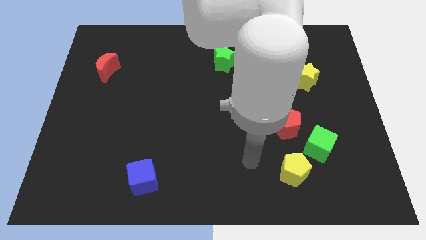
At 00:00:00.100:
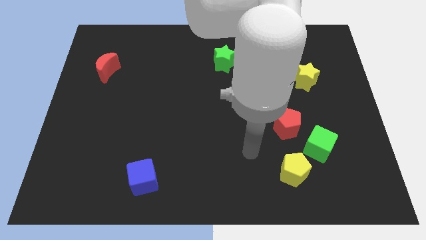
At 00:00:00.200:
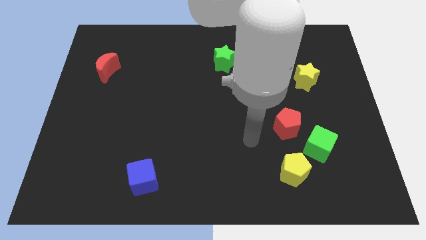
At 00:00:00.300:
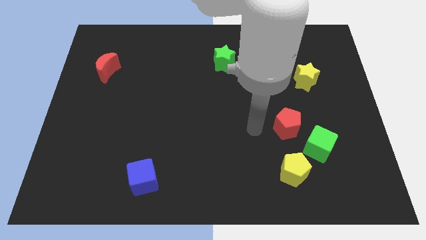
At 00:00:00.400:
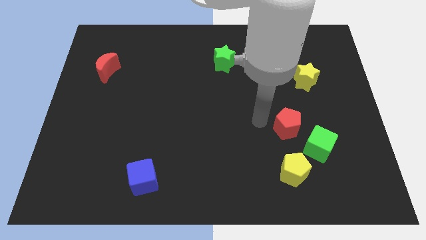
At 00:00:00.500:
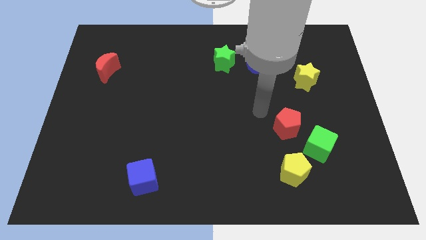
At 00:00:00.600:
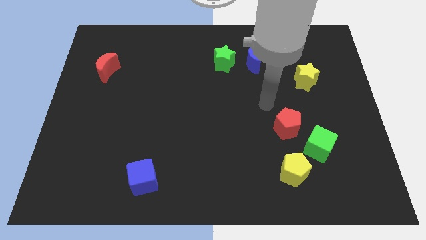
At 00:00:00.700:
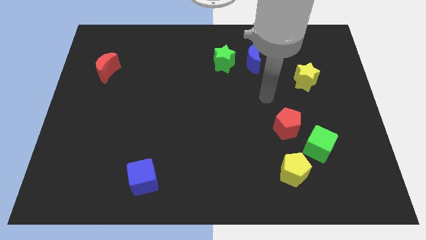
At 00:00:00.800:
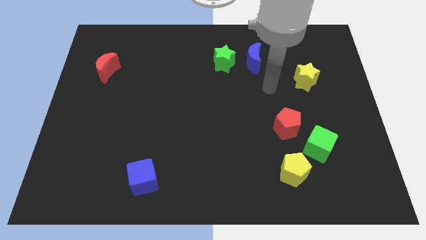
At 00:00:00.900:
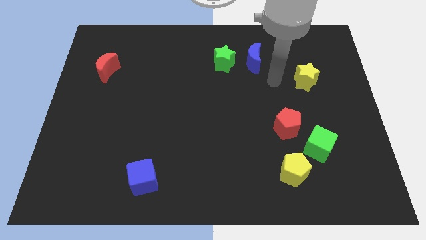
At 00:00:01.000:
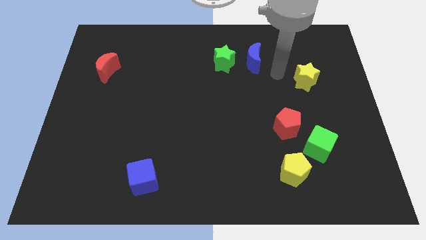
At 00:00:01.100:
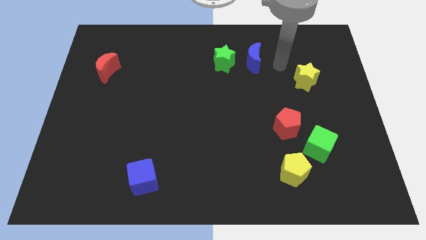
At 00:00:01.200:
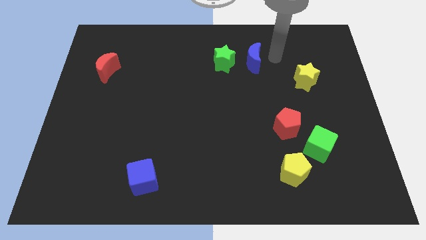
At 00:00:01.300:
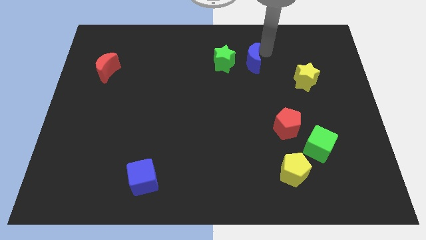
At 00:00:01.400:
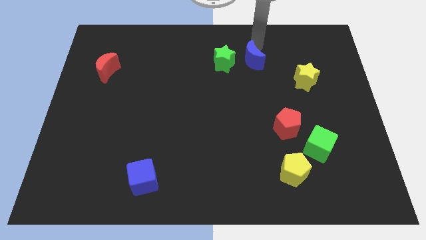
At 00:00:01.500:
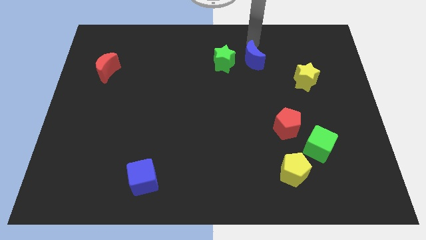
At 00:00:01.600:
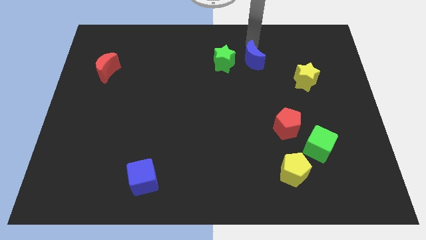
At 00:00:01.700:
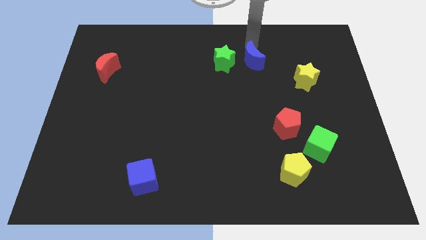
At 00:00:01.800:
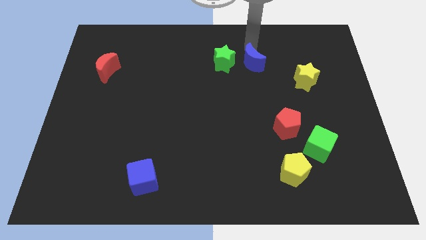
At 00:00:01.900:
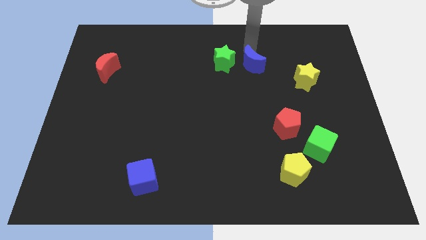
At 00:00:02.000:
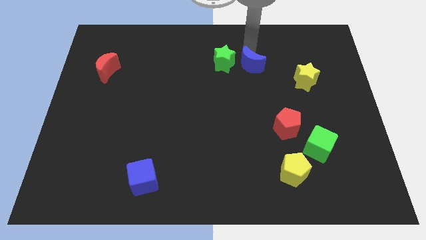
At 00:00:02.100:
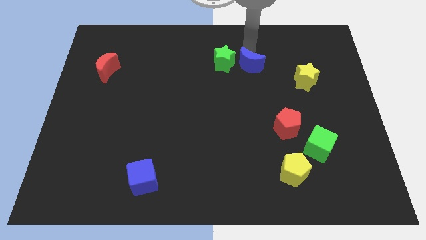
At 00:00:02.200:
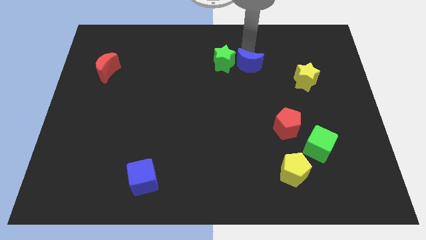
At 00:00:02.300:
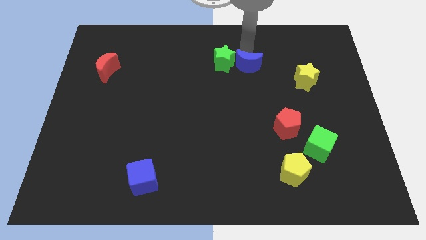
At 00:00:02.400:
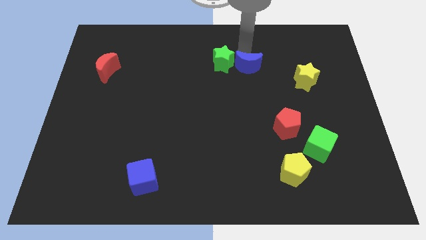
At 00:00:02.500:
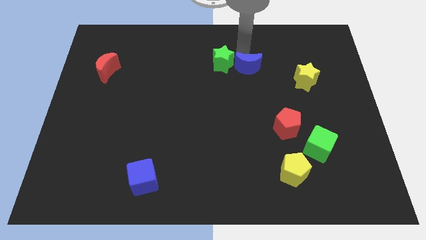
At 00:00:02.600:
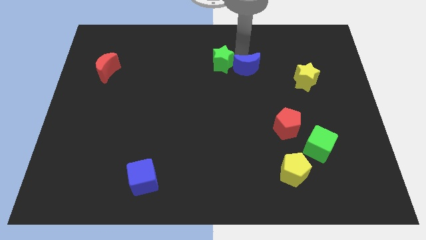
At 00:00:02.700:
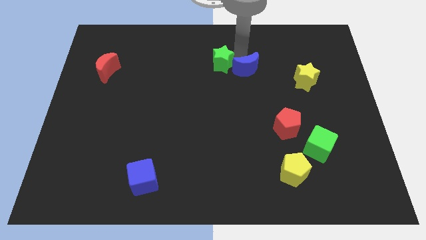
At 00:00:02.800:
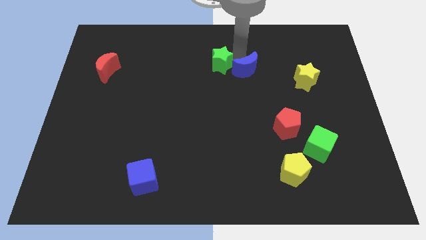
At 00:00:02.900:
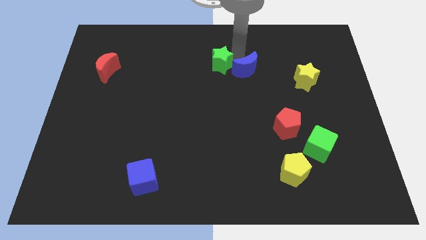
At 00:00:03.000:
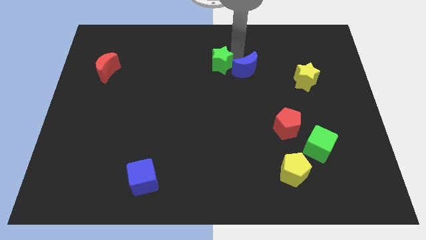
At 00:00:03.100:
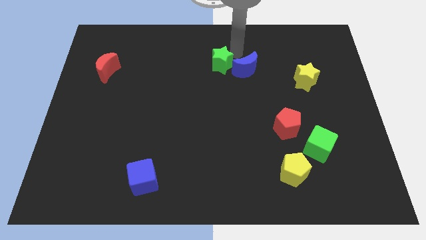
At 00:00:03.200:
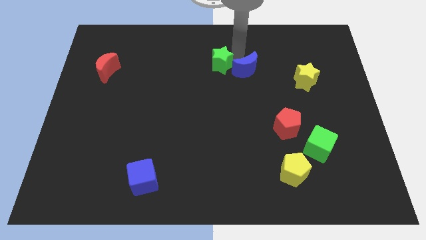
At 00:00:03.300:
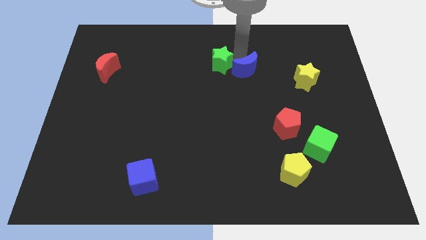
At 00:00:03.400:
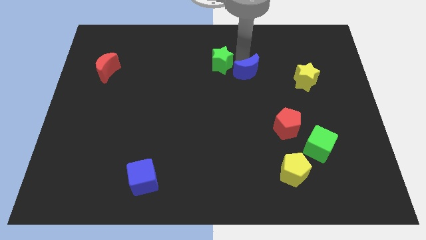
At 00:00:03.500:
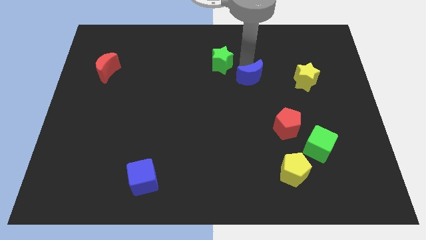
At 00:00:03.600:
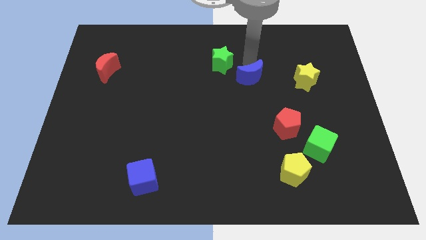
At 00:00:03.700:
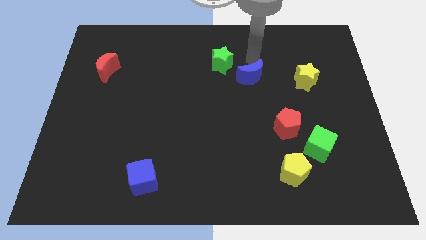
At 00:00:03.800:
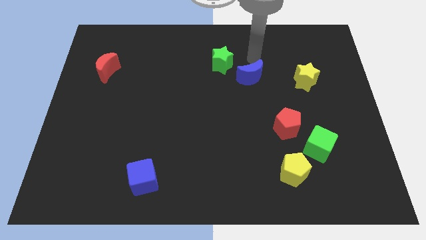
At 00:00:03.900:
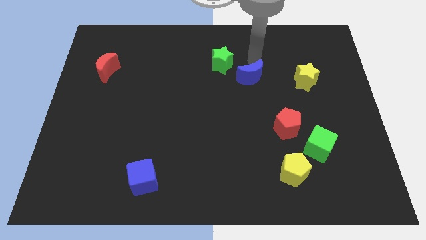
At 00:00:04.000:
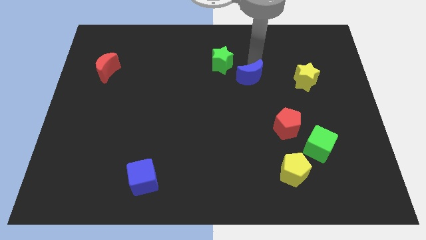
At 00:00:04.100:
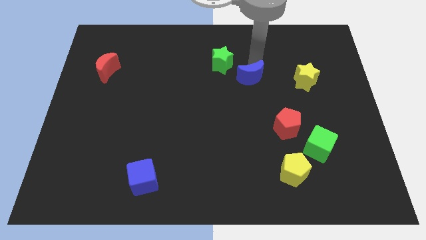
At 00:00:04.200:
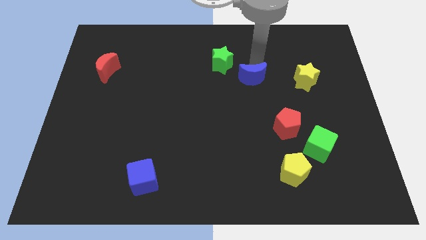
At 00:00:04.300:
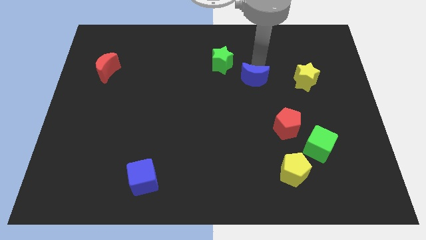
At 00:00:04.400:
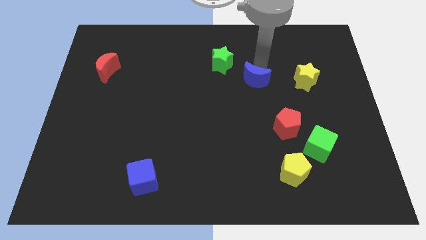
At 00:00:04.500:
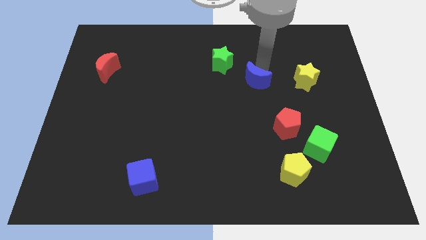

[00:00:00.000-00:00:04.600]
slightly slide the blue moon downwards

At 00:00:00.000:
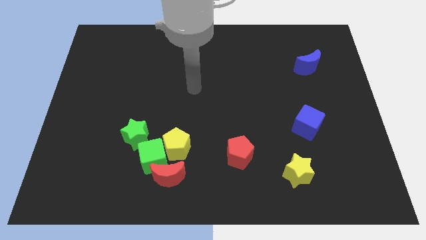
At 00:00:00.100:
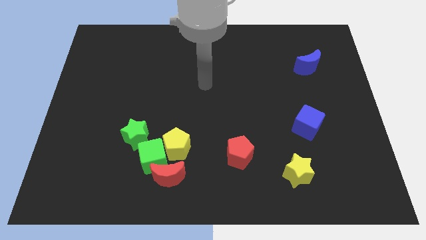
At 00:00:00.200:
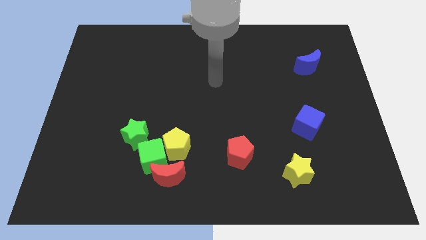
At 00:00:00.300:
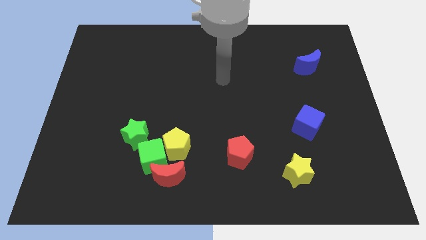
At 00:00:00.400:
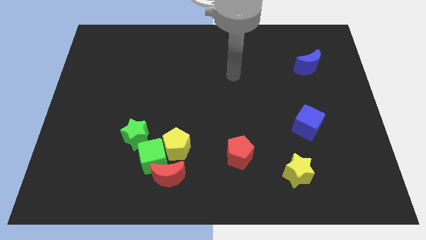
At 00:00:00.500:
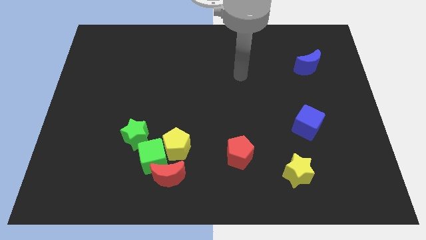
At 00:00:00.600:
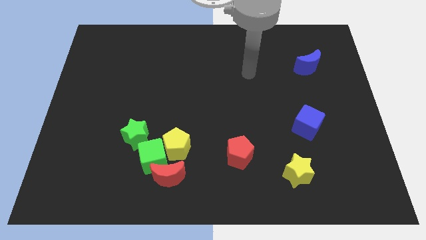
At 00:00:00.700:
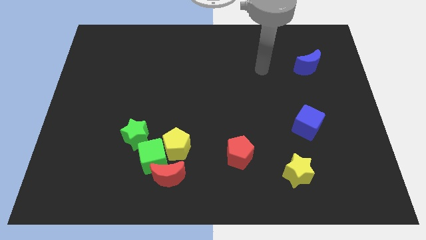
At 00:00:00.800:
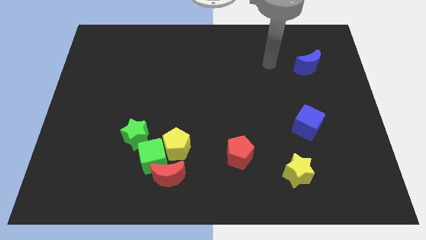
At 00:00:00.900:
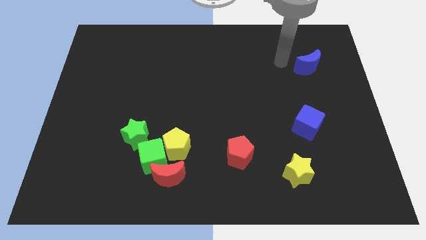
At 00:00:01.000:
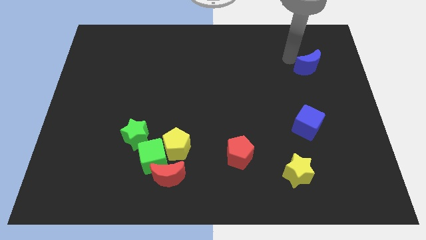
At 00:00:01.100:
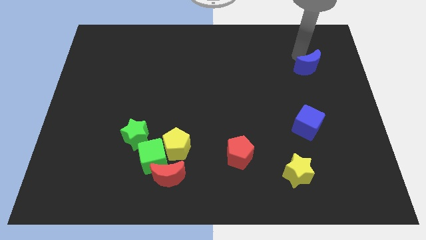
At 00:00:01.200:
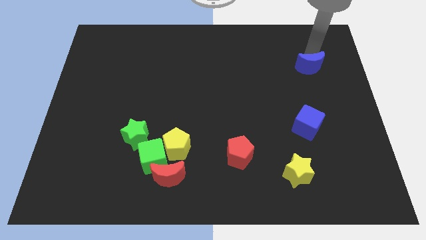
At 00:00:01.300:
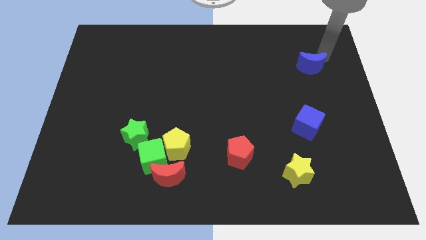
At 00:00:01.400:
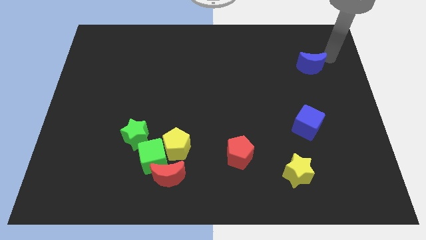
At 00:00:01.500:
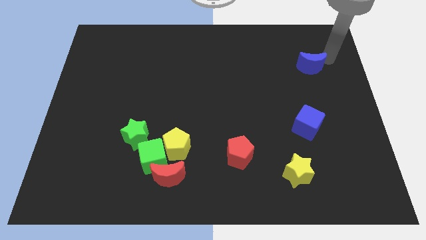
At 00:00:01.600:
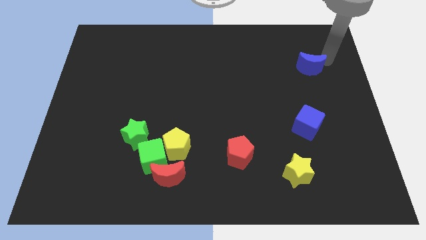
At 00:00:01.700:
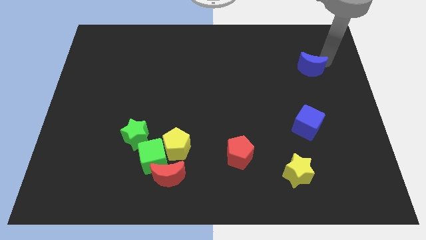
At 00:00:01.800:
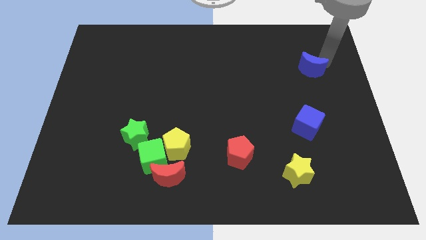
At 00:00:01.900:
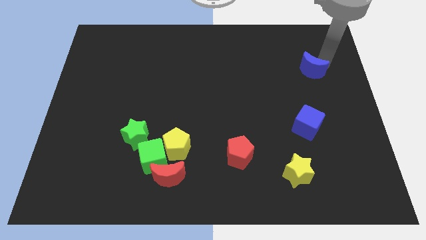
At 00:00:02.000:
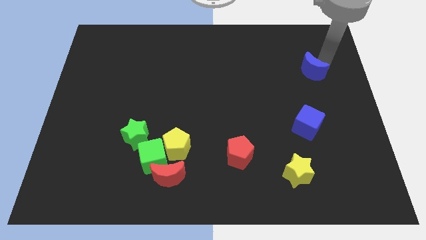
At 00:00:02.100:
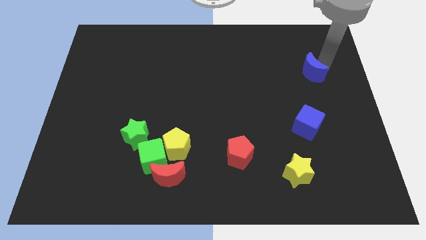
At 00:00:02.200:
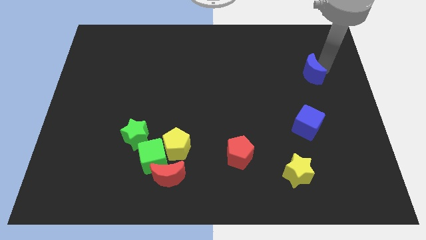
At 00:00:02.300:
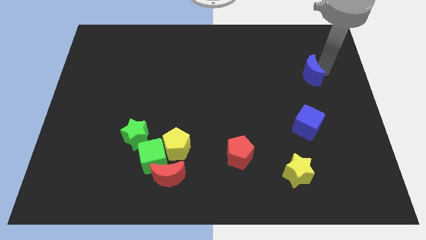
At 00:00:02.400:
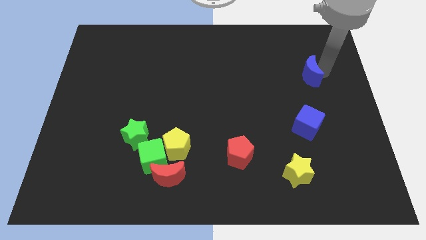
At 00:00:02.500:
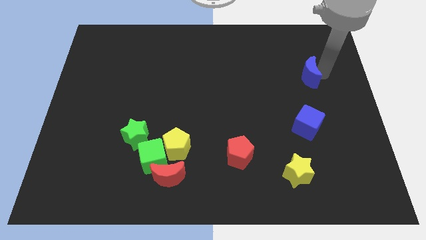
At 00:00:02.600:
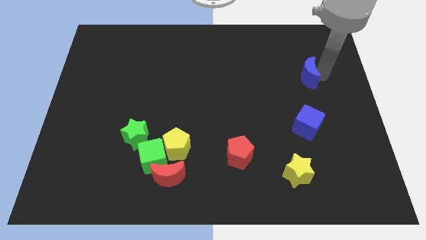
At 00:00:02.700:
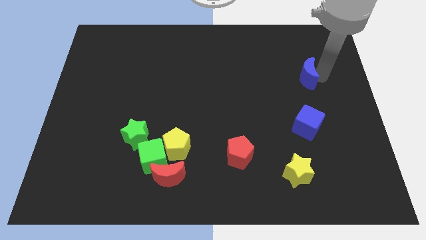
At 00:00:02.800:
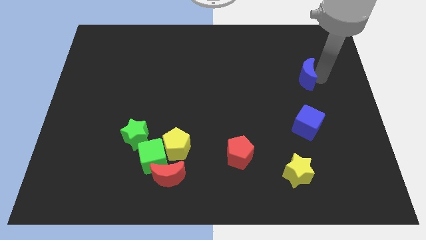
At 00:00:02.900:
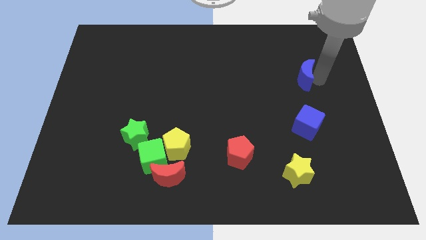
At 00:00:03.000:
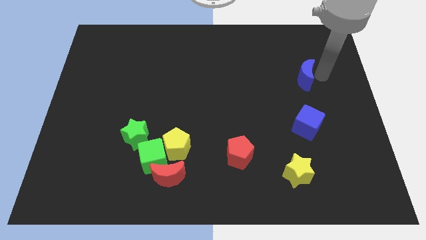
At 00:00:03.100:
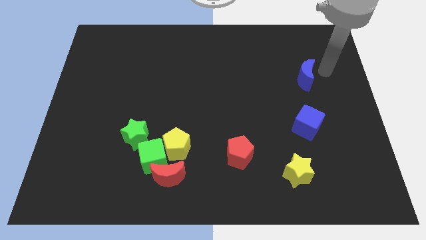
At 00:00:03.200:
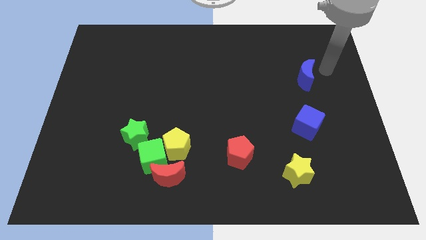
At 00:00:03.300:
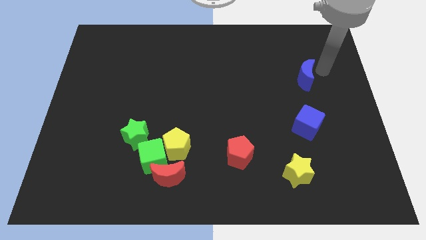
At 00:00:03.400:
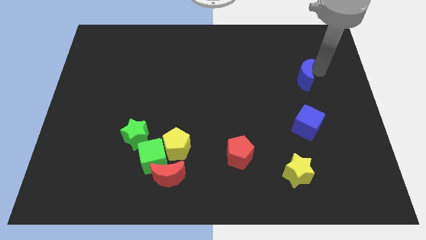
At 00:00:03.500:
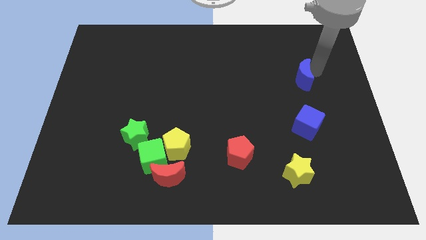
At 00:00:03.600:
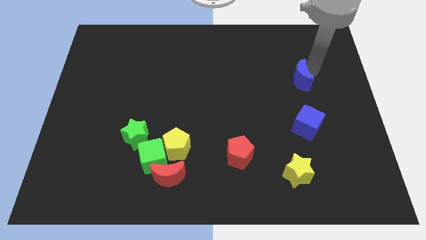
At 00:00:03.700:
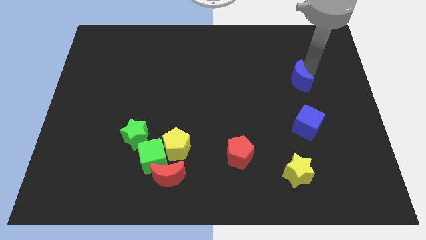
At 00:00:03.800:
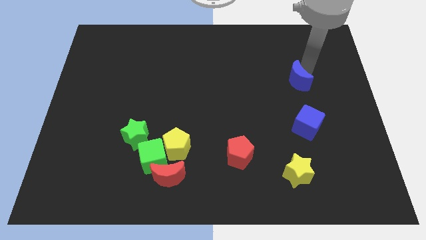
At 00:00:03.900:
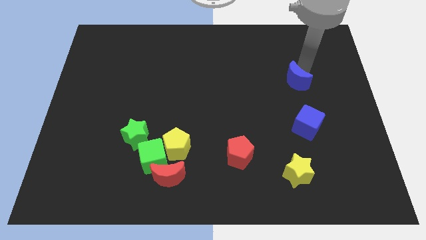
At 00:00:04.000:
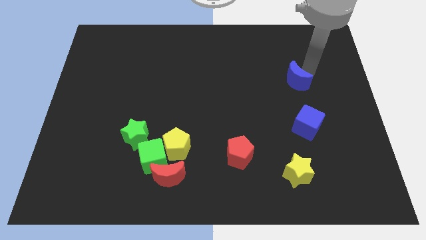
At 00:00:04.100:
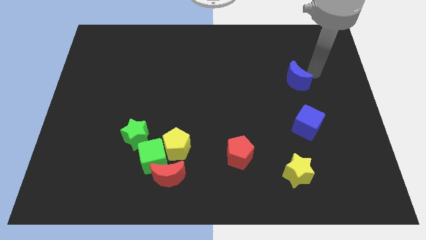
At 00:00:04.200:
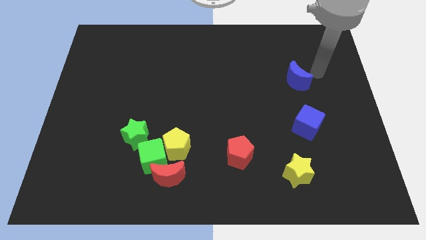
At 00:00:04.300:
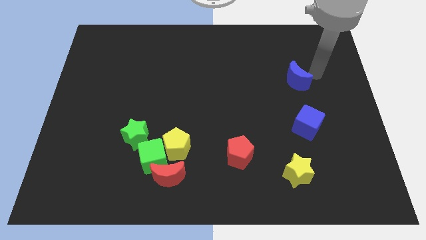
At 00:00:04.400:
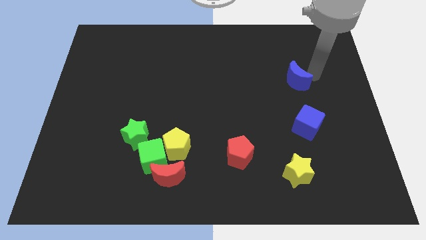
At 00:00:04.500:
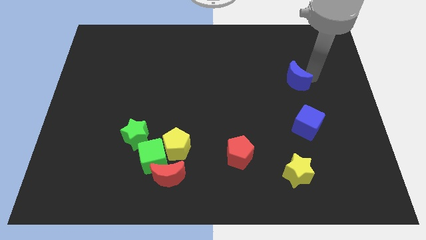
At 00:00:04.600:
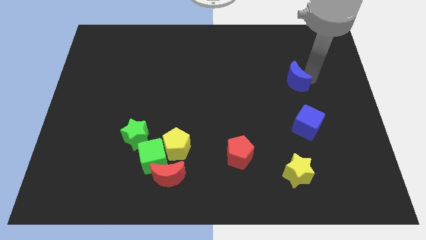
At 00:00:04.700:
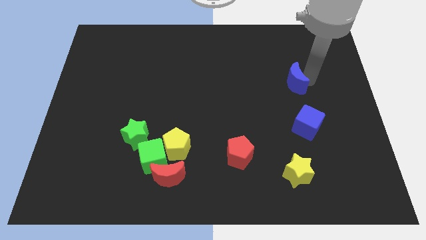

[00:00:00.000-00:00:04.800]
slide the blue moon a little bit downwards and to the left
